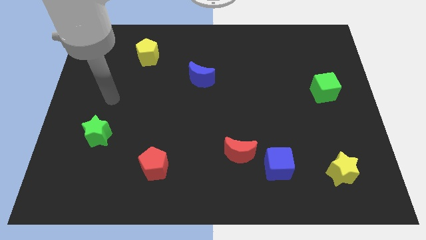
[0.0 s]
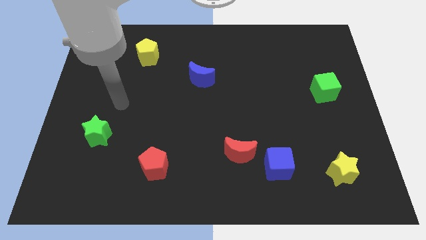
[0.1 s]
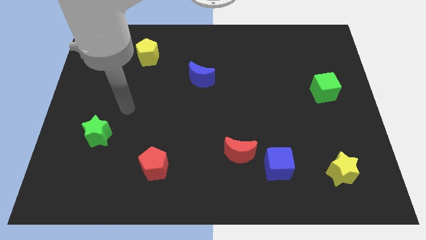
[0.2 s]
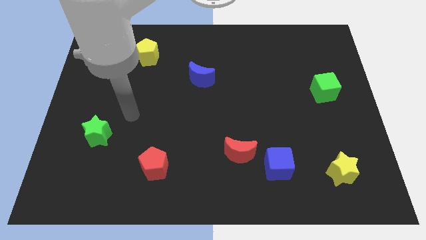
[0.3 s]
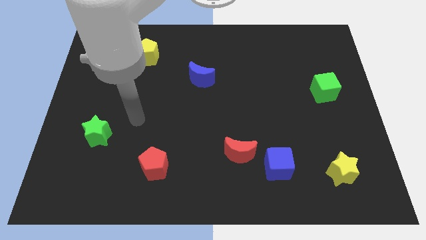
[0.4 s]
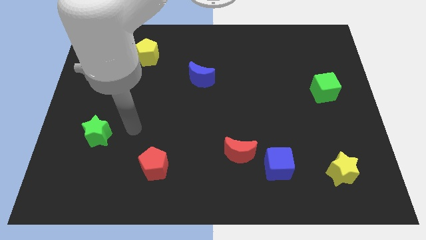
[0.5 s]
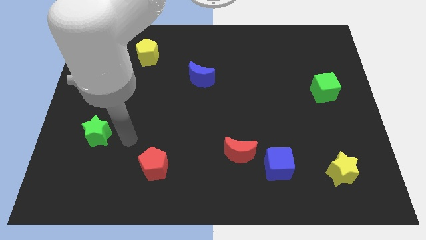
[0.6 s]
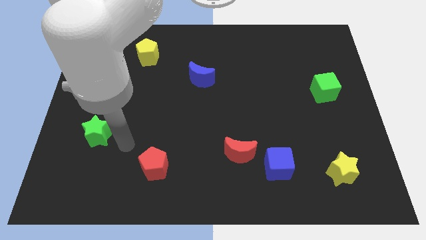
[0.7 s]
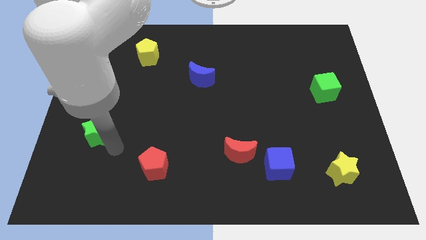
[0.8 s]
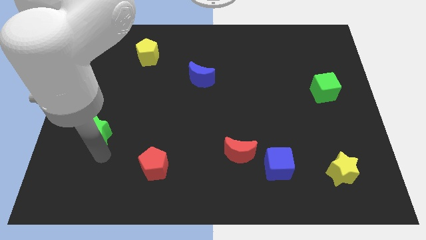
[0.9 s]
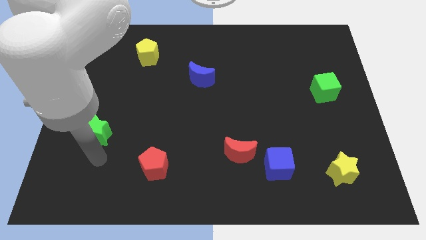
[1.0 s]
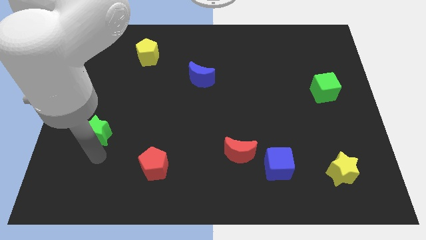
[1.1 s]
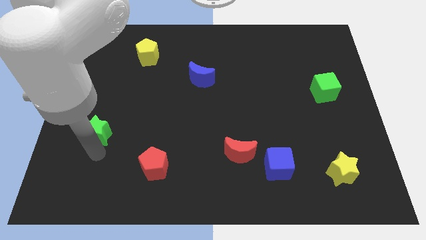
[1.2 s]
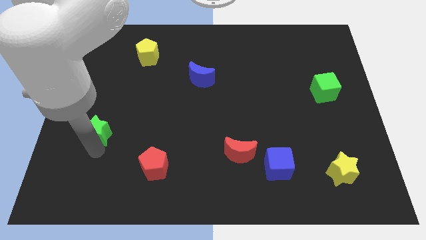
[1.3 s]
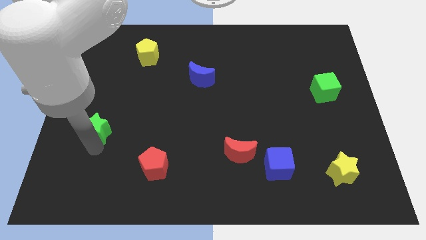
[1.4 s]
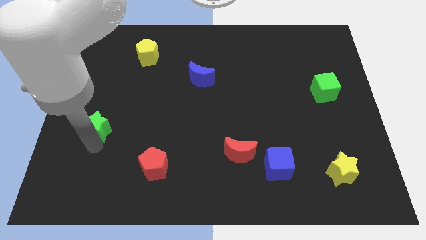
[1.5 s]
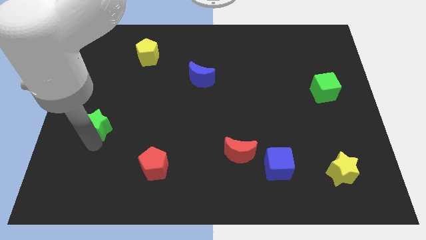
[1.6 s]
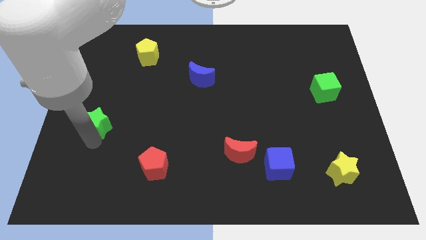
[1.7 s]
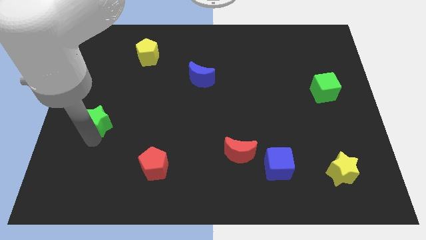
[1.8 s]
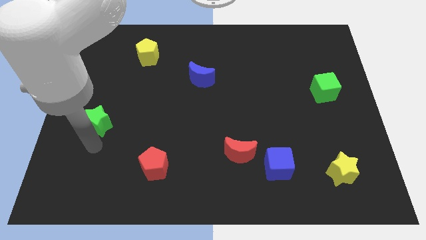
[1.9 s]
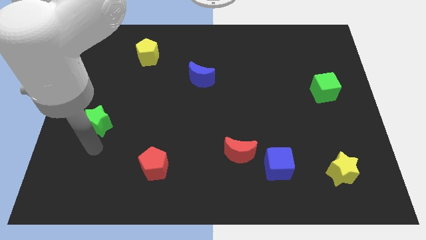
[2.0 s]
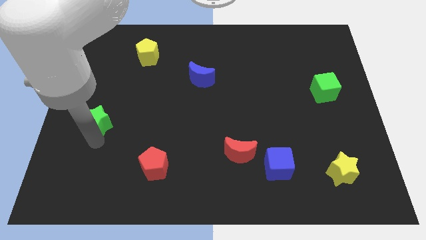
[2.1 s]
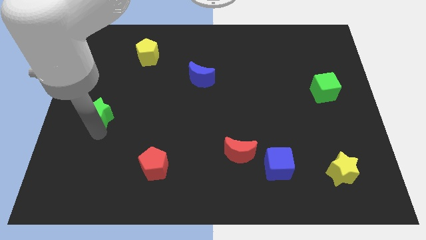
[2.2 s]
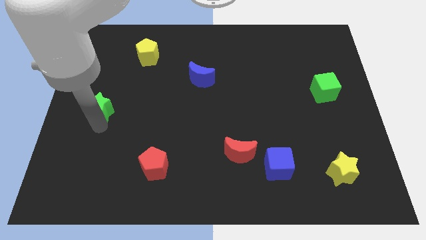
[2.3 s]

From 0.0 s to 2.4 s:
move the green star up slightly

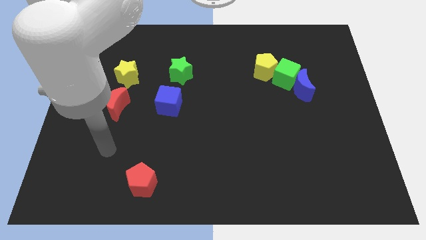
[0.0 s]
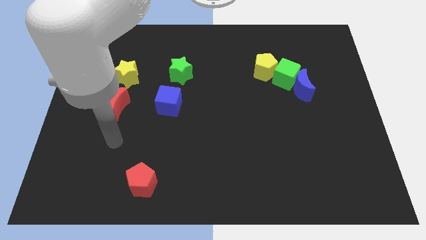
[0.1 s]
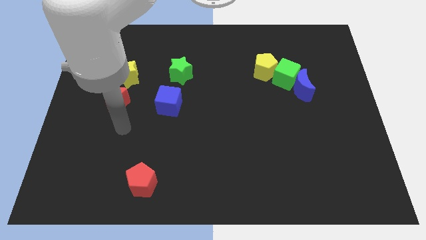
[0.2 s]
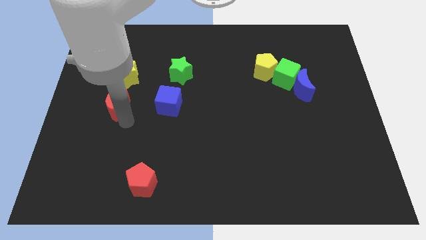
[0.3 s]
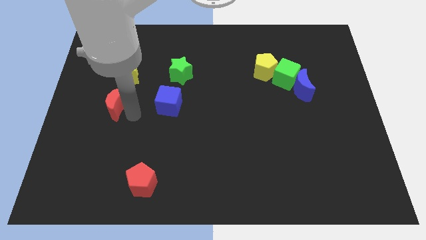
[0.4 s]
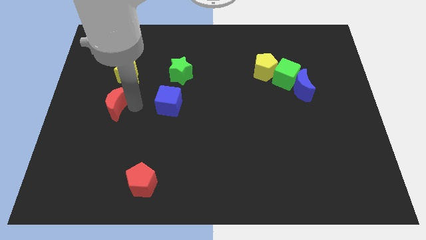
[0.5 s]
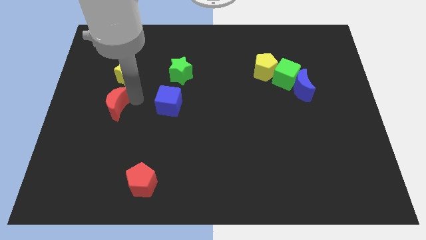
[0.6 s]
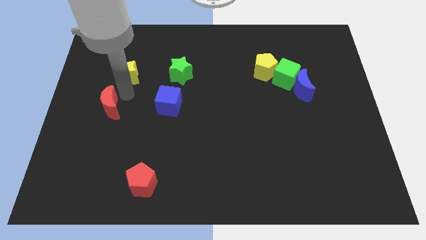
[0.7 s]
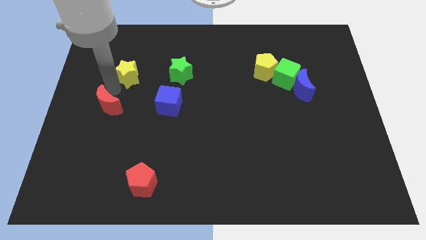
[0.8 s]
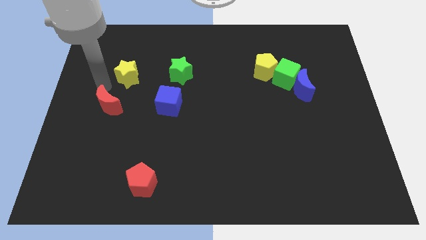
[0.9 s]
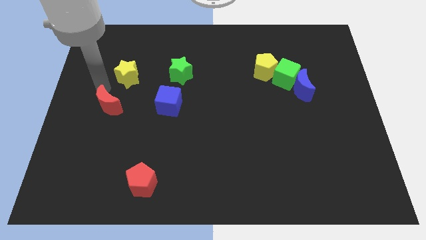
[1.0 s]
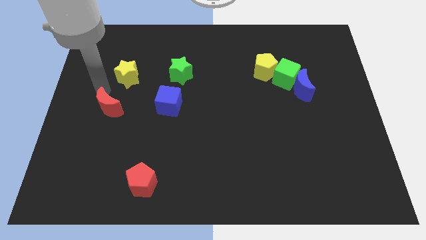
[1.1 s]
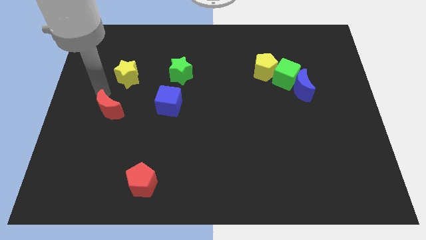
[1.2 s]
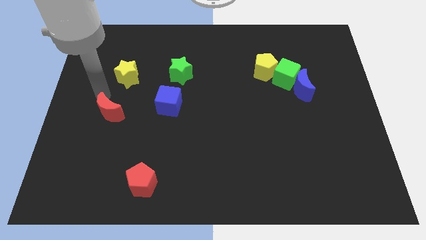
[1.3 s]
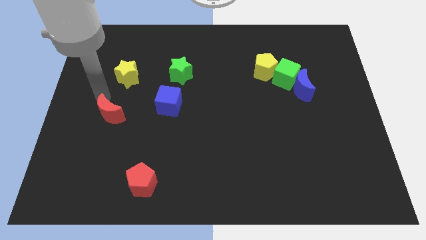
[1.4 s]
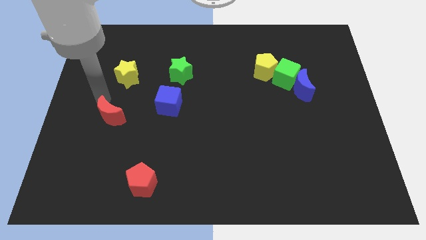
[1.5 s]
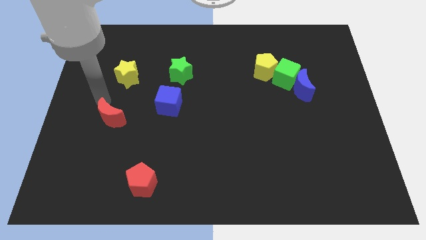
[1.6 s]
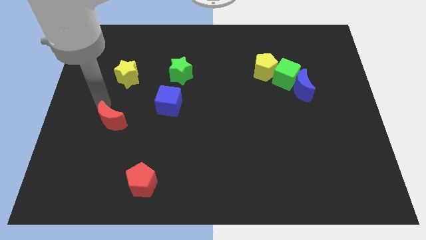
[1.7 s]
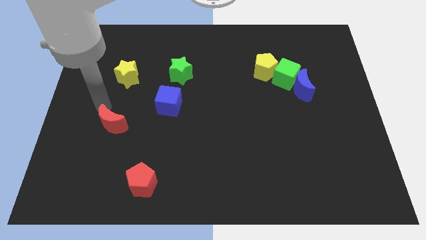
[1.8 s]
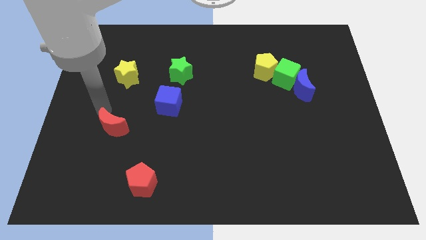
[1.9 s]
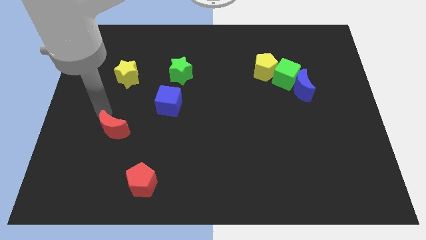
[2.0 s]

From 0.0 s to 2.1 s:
slightly move the red moon downwards

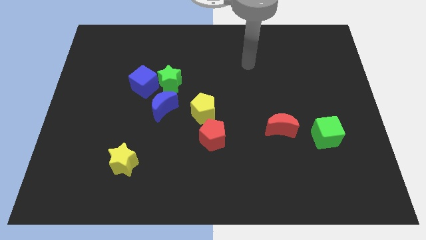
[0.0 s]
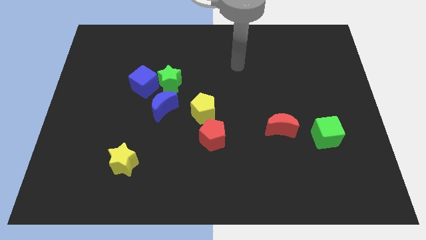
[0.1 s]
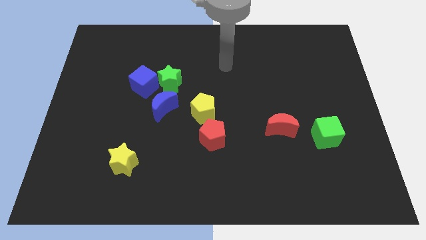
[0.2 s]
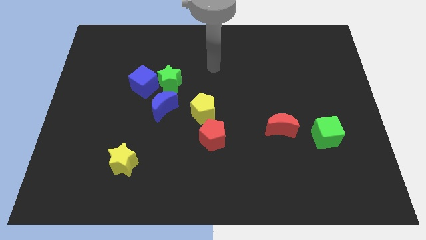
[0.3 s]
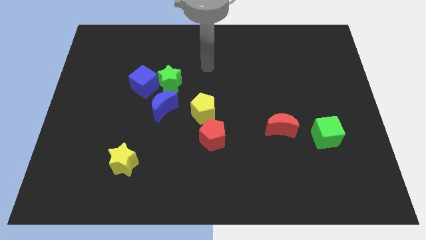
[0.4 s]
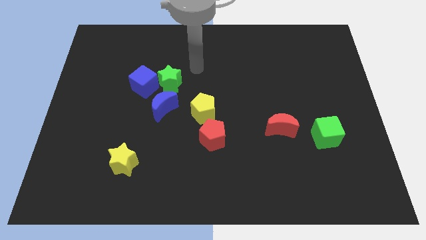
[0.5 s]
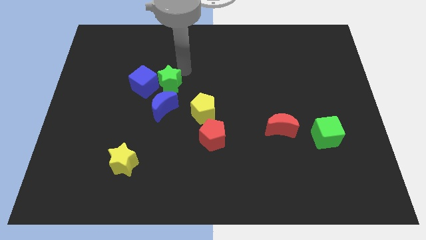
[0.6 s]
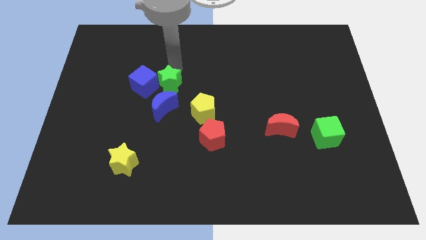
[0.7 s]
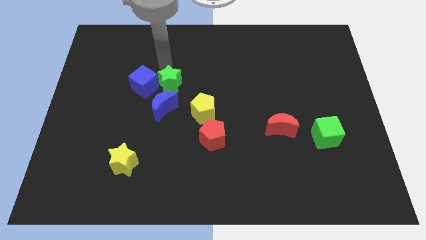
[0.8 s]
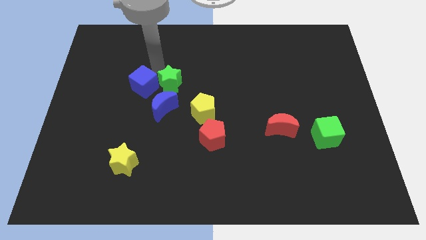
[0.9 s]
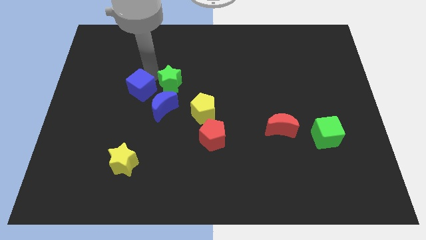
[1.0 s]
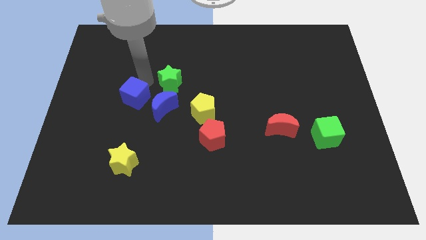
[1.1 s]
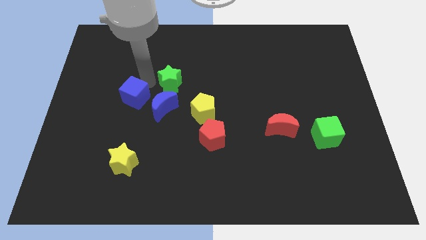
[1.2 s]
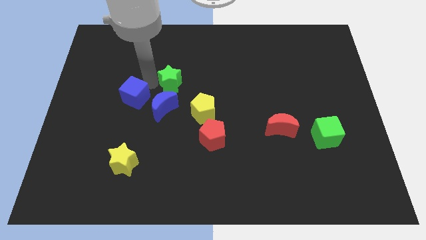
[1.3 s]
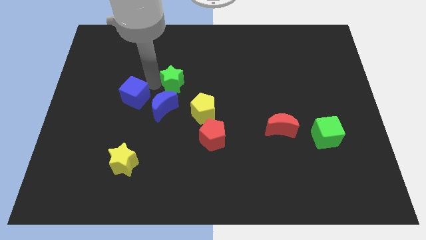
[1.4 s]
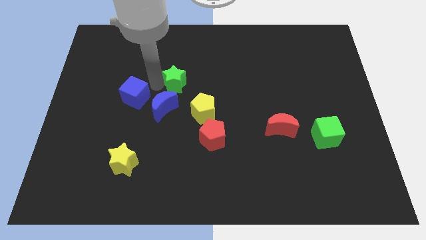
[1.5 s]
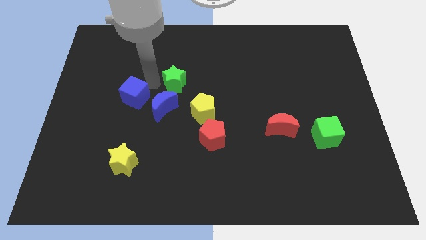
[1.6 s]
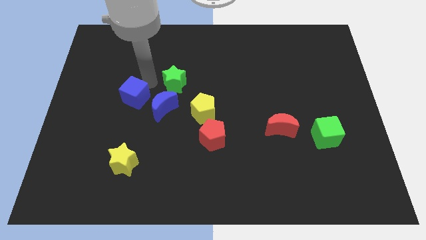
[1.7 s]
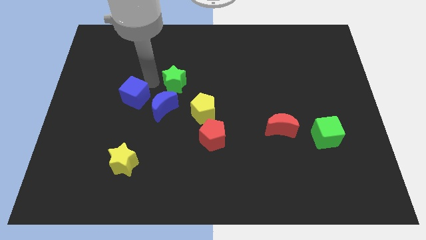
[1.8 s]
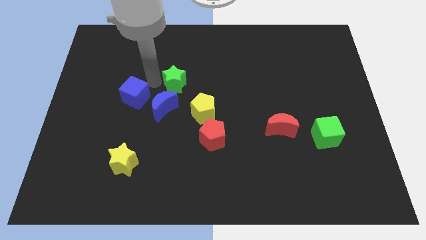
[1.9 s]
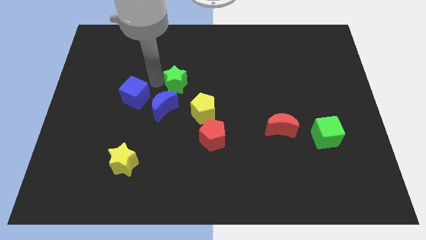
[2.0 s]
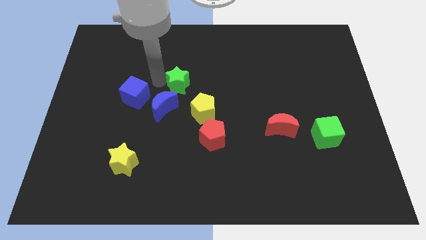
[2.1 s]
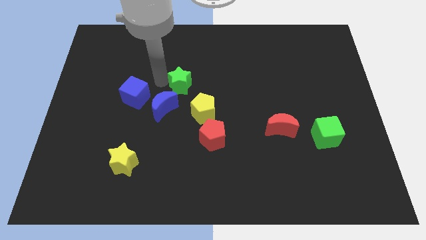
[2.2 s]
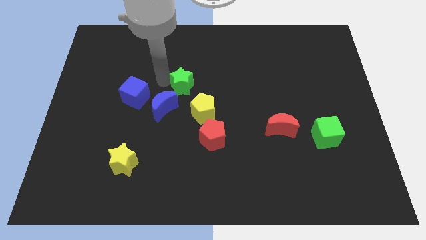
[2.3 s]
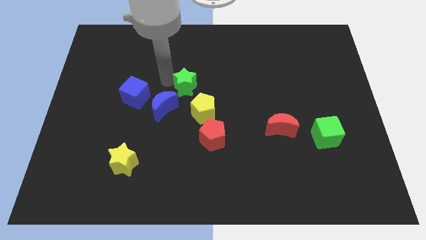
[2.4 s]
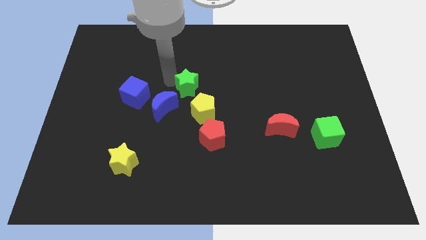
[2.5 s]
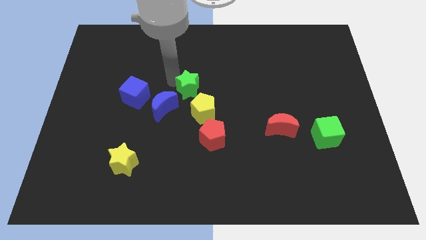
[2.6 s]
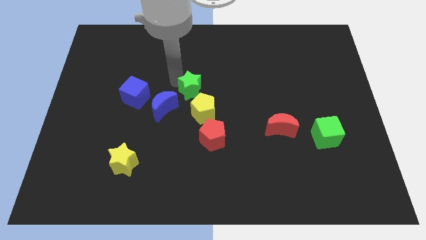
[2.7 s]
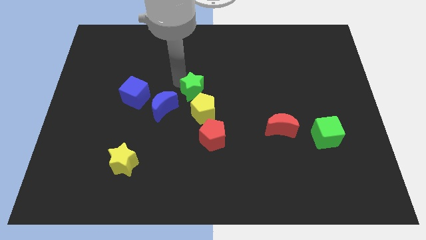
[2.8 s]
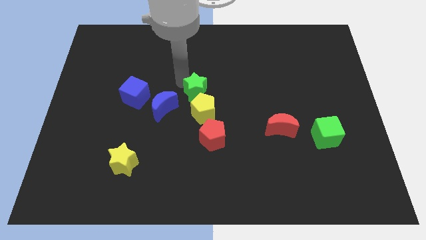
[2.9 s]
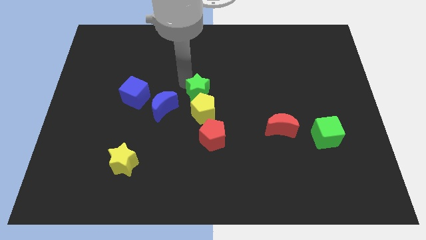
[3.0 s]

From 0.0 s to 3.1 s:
slide the green star to the right somewhat

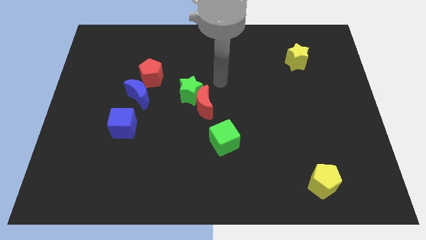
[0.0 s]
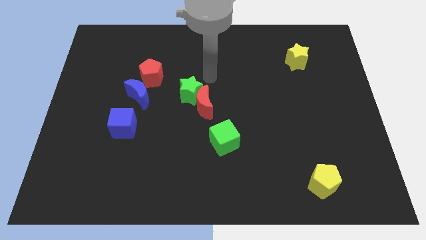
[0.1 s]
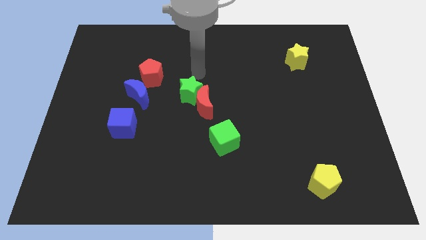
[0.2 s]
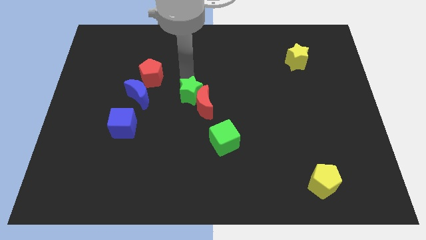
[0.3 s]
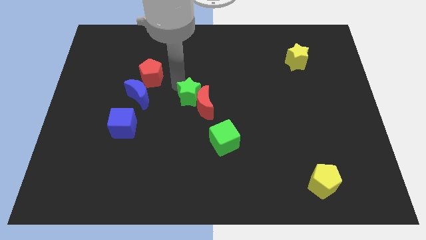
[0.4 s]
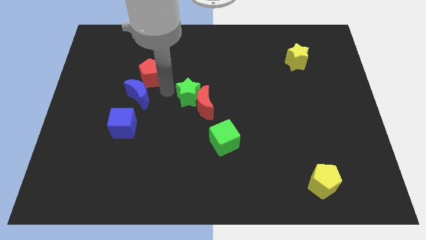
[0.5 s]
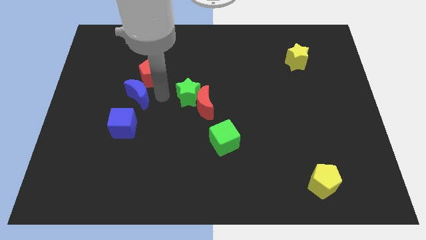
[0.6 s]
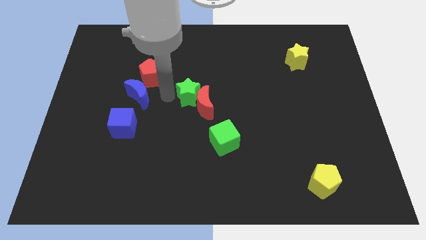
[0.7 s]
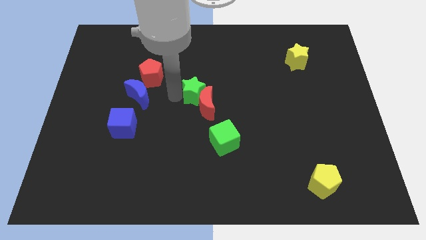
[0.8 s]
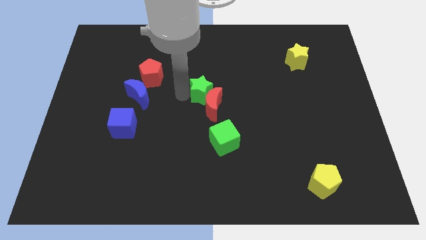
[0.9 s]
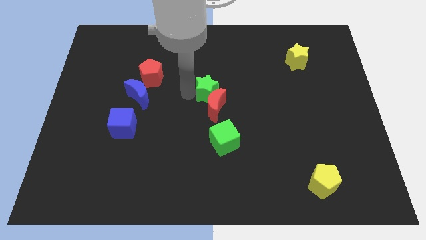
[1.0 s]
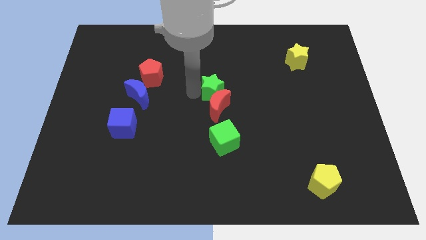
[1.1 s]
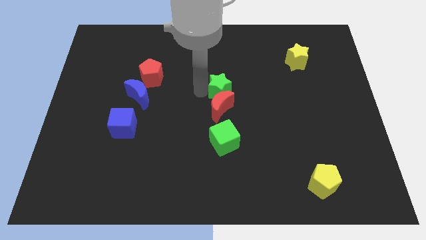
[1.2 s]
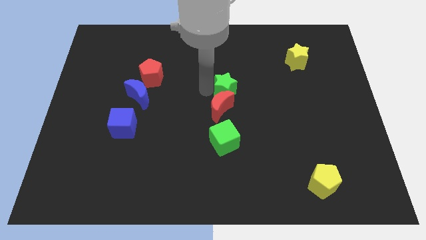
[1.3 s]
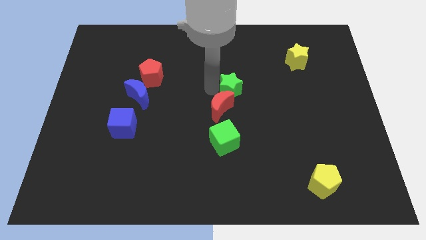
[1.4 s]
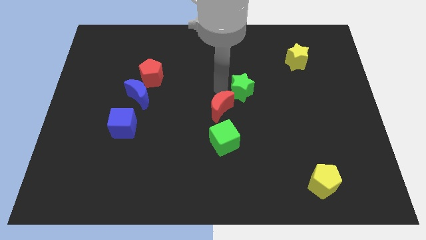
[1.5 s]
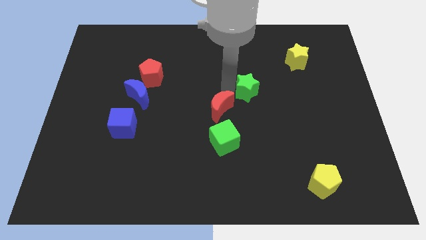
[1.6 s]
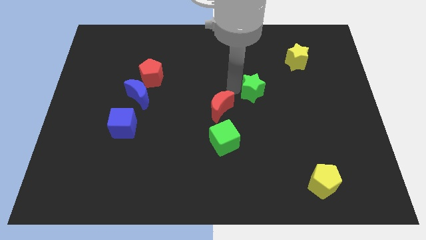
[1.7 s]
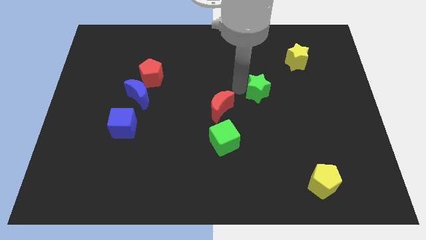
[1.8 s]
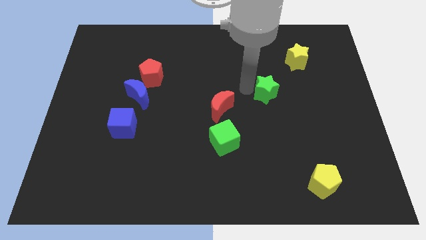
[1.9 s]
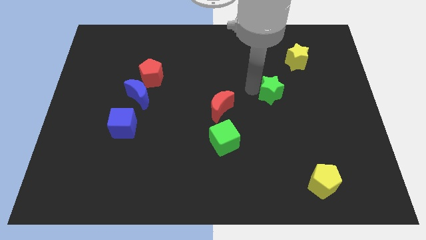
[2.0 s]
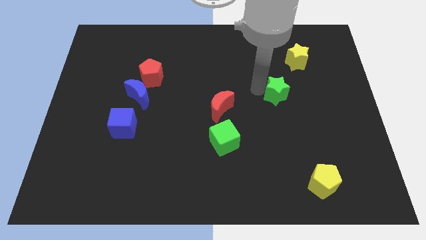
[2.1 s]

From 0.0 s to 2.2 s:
slide the green star to the right
